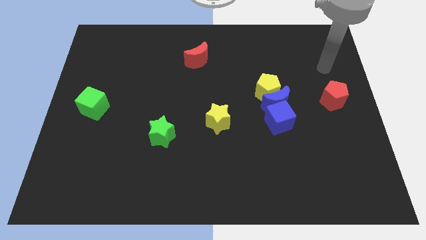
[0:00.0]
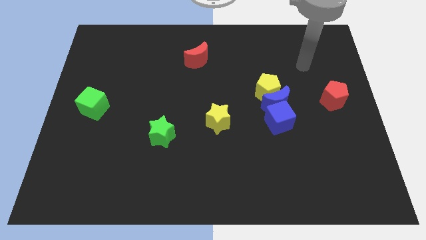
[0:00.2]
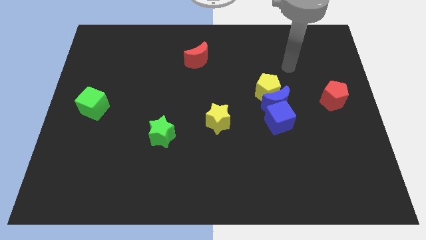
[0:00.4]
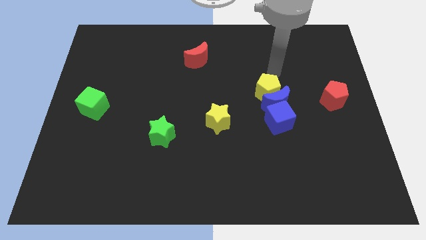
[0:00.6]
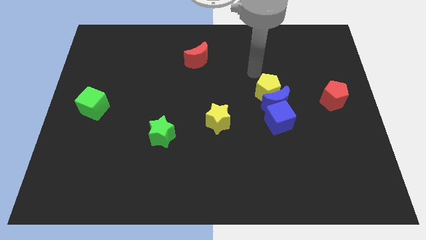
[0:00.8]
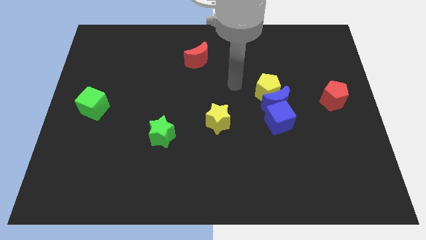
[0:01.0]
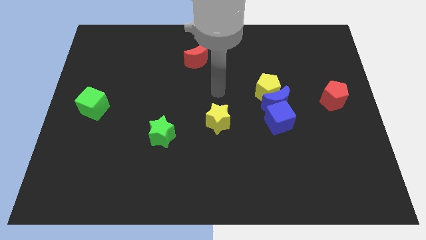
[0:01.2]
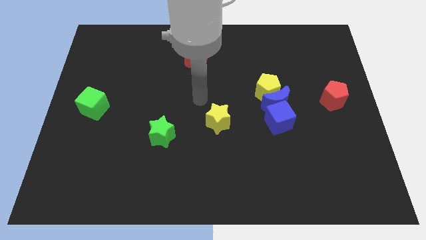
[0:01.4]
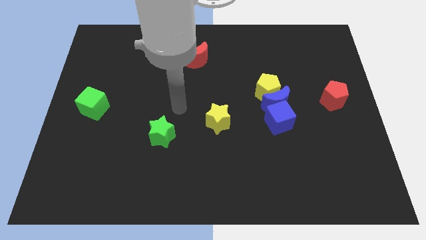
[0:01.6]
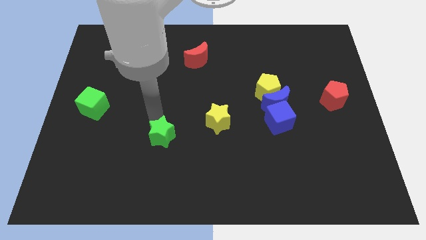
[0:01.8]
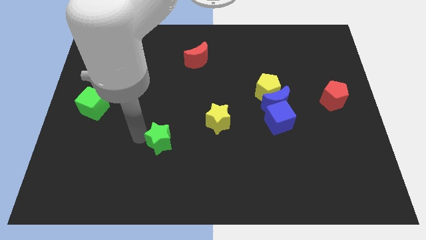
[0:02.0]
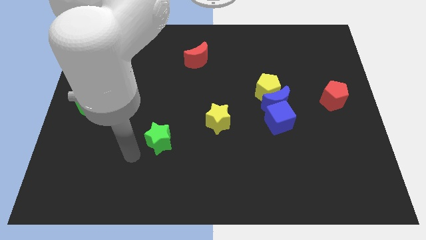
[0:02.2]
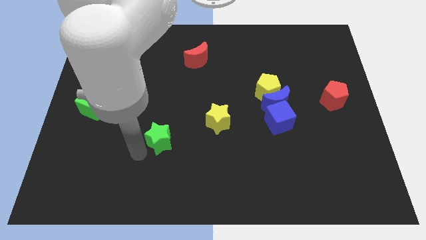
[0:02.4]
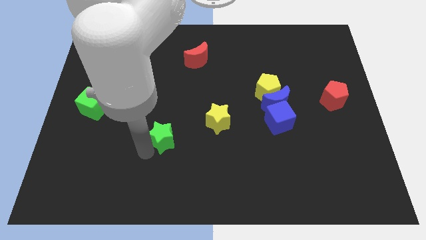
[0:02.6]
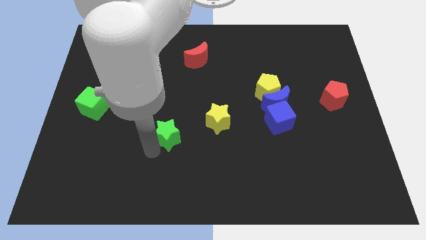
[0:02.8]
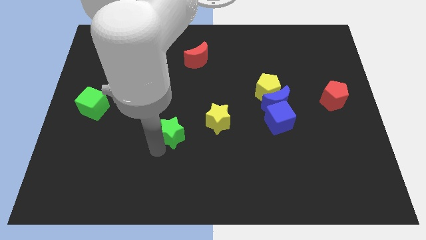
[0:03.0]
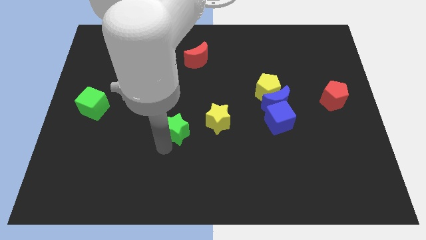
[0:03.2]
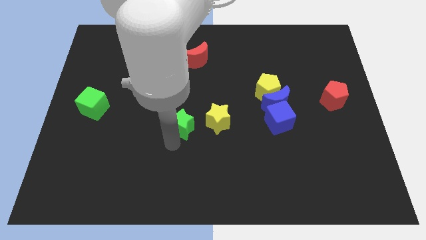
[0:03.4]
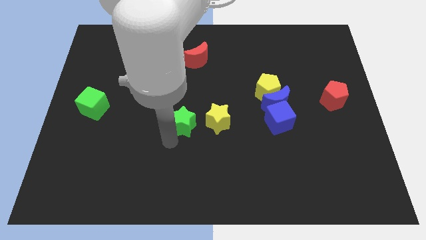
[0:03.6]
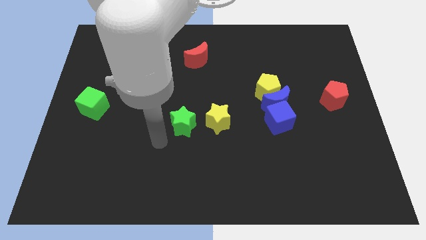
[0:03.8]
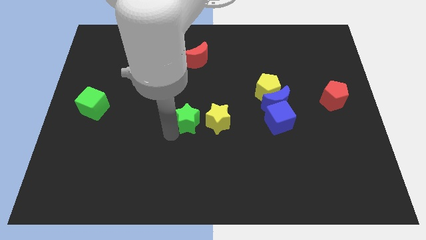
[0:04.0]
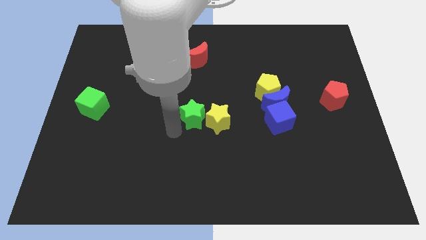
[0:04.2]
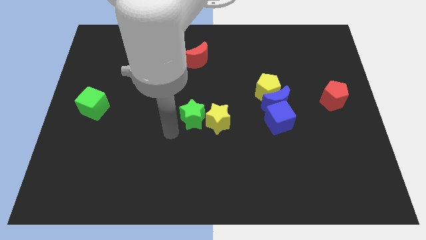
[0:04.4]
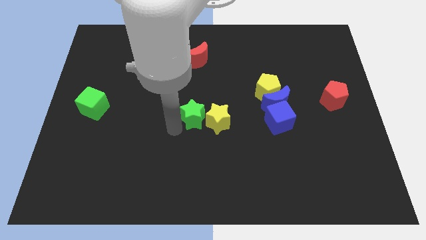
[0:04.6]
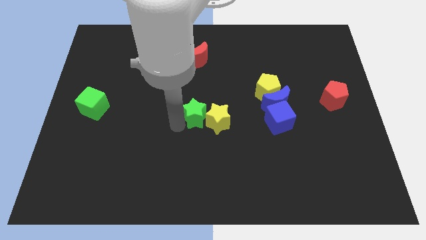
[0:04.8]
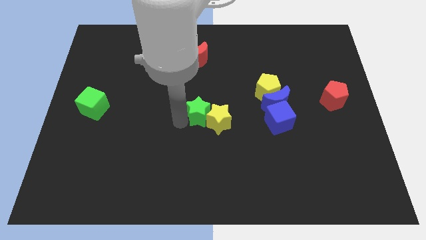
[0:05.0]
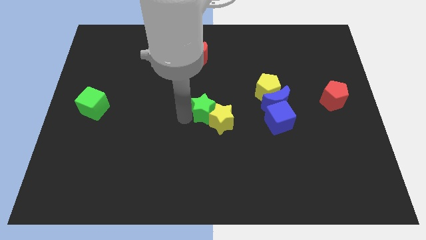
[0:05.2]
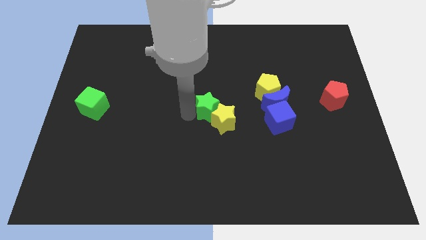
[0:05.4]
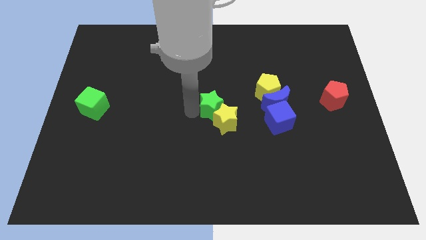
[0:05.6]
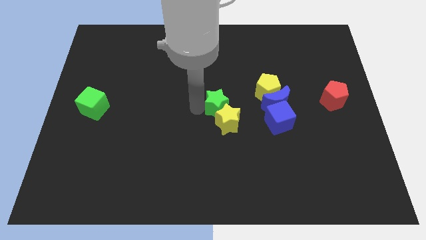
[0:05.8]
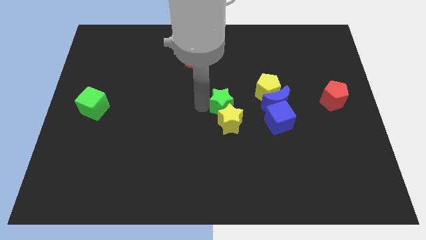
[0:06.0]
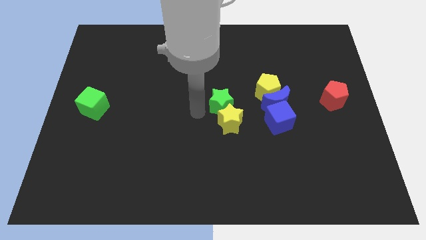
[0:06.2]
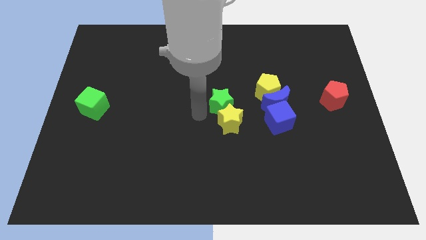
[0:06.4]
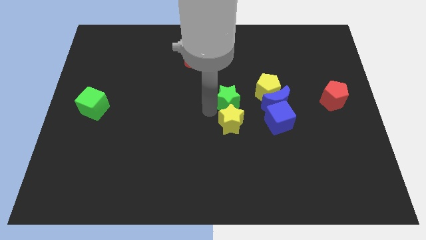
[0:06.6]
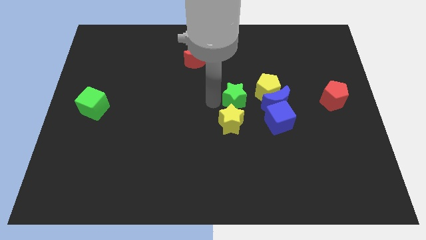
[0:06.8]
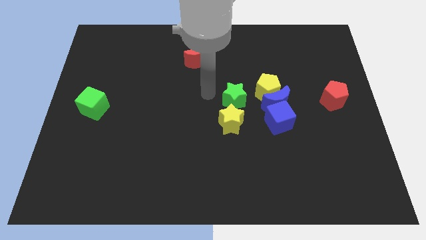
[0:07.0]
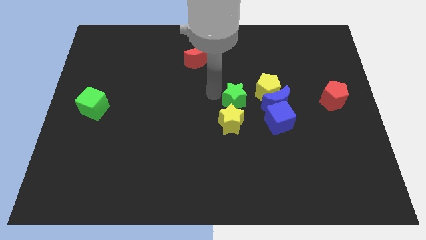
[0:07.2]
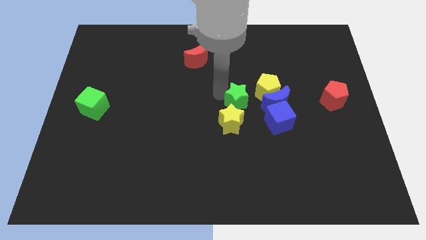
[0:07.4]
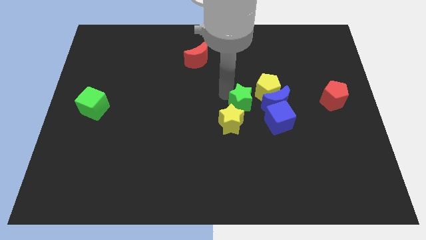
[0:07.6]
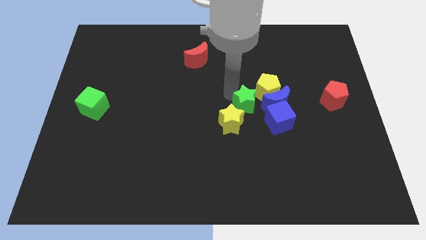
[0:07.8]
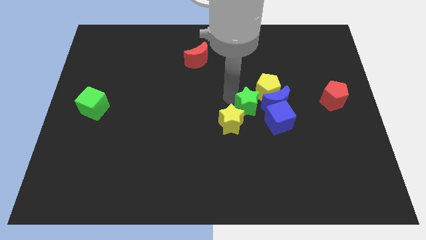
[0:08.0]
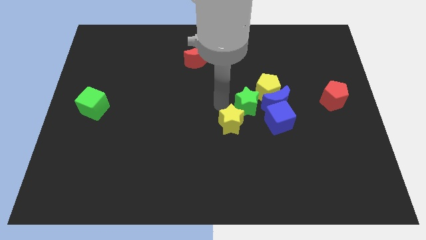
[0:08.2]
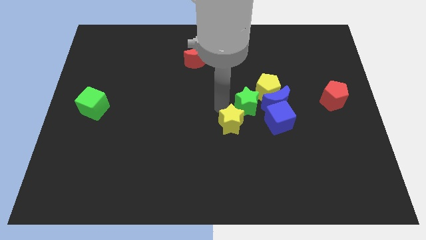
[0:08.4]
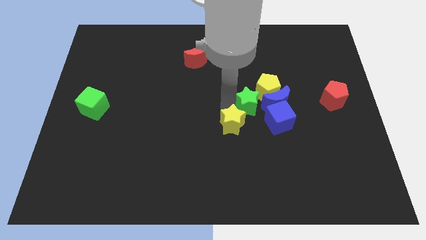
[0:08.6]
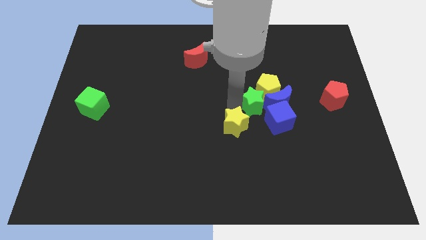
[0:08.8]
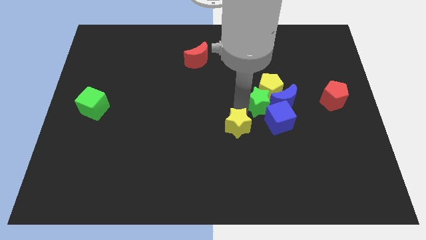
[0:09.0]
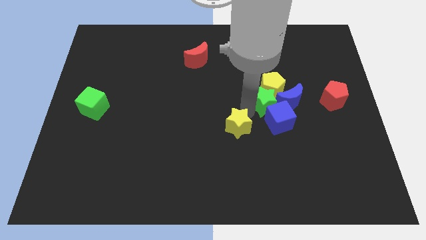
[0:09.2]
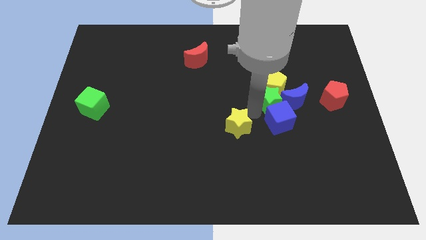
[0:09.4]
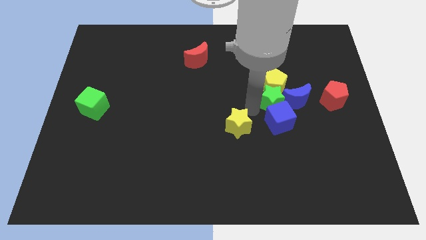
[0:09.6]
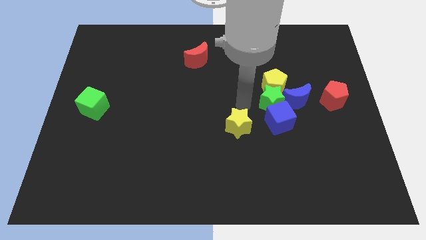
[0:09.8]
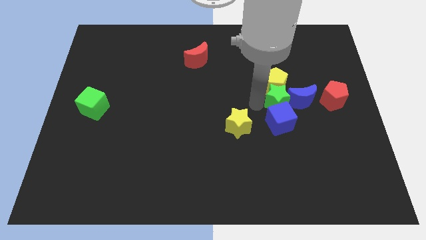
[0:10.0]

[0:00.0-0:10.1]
put the green star towards the blue moon

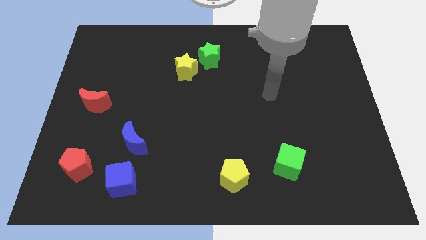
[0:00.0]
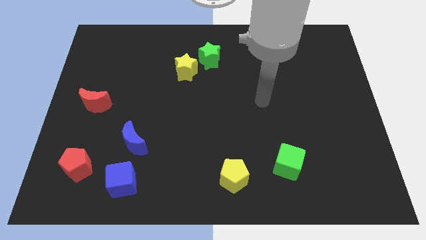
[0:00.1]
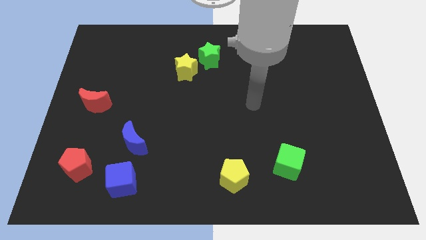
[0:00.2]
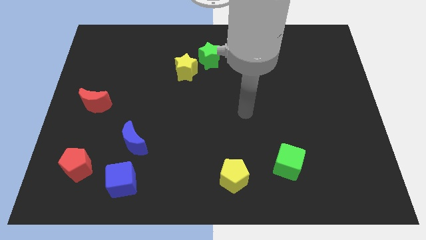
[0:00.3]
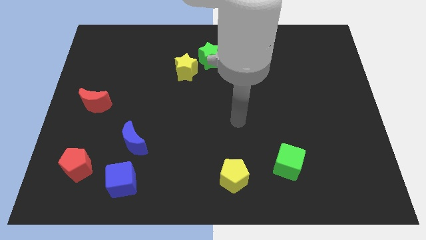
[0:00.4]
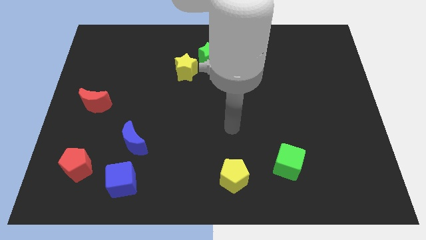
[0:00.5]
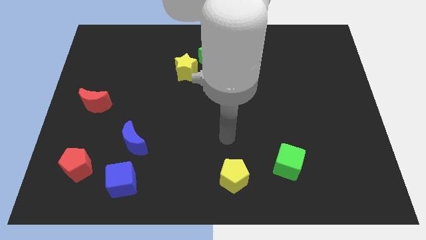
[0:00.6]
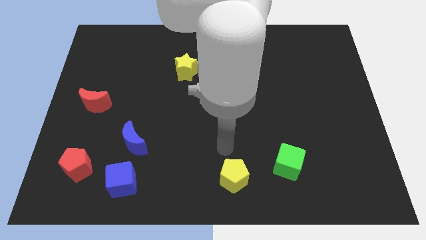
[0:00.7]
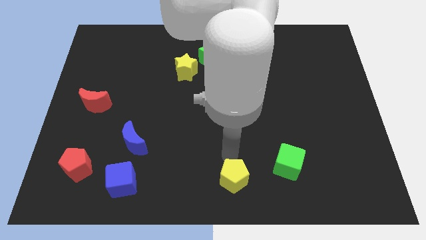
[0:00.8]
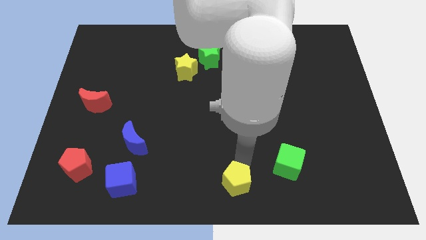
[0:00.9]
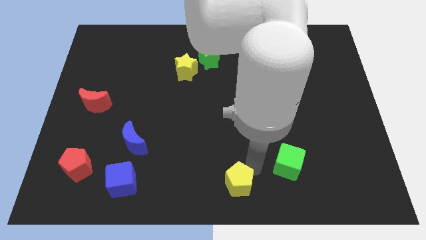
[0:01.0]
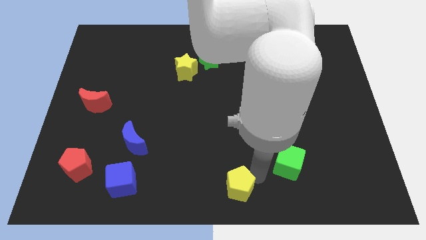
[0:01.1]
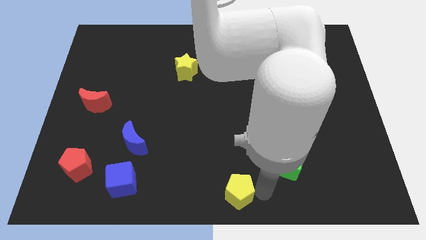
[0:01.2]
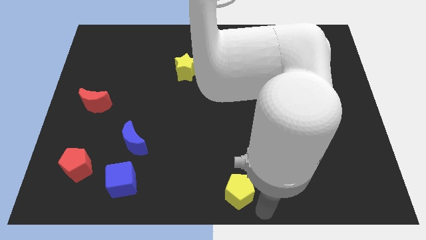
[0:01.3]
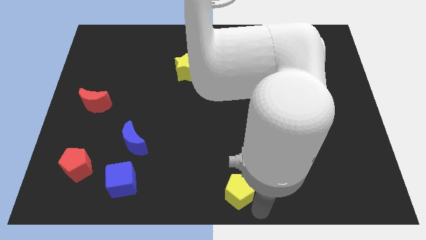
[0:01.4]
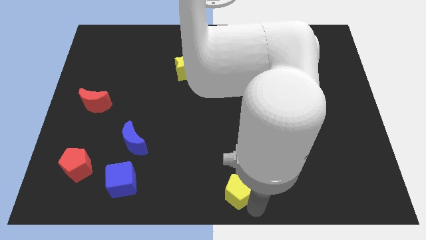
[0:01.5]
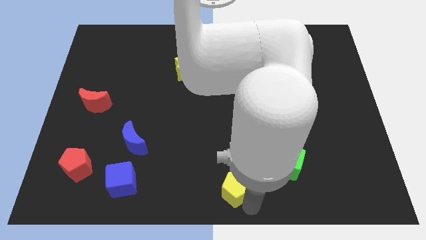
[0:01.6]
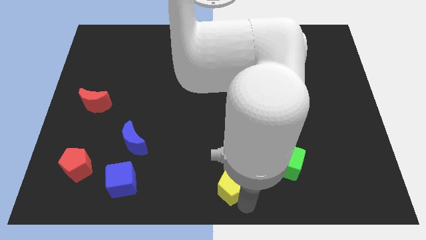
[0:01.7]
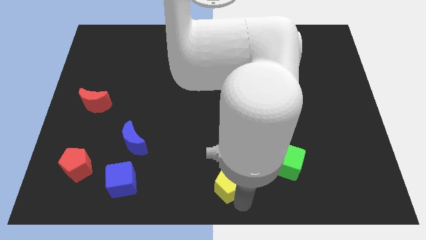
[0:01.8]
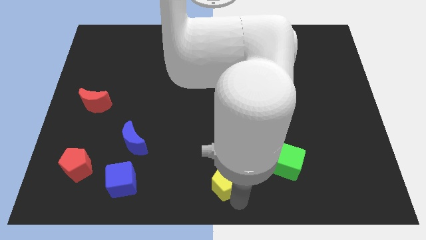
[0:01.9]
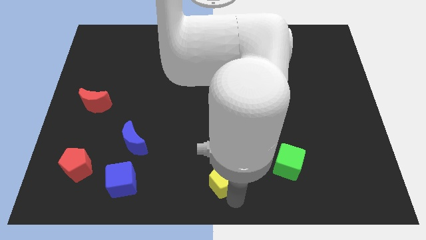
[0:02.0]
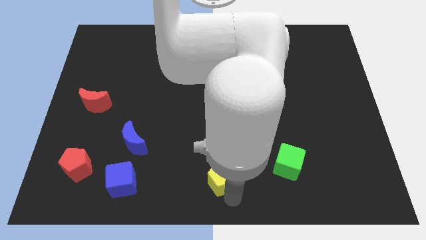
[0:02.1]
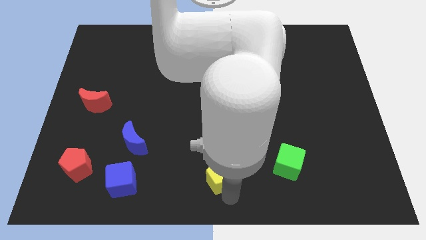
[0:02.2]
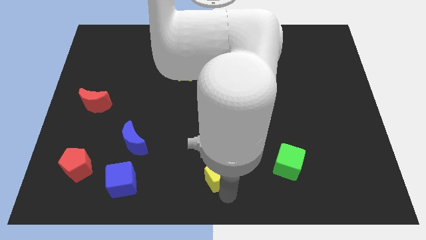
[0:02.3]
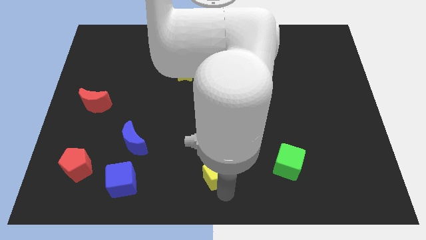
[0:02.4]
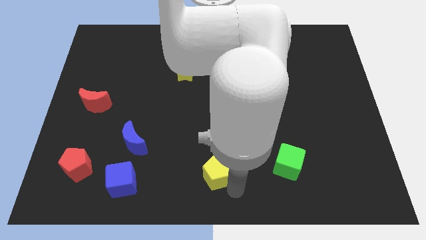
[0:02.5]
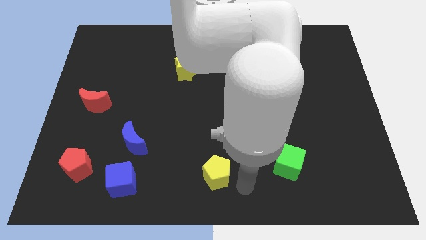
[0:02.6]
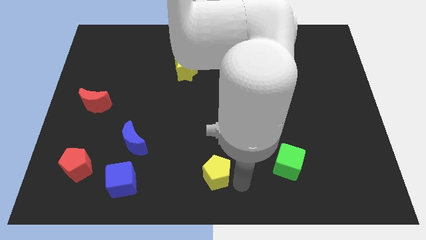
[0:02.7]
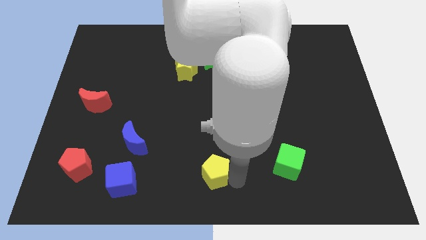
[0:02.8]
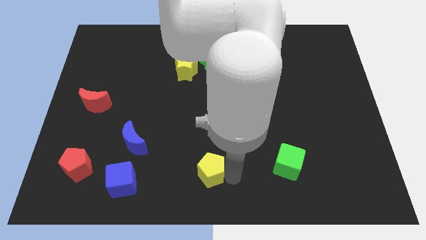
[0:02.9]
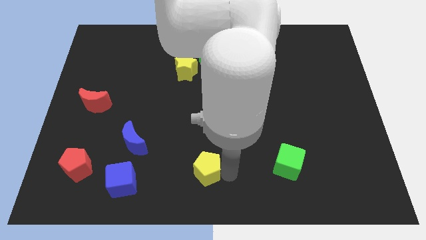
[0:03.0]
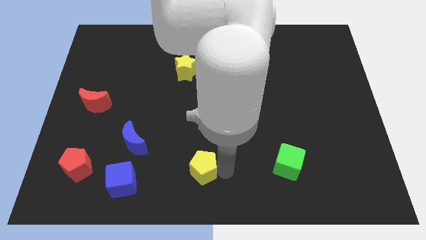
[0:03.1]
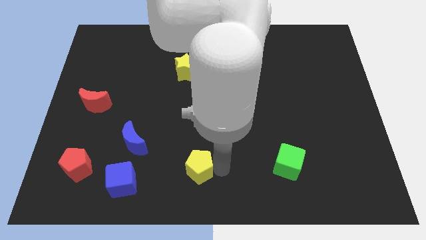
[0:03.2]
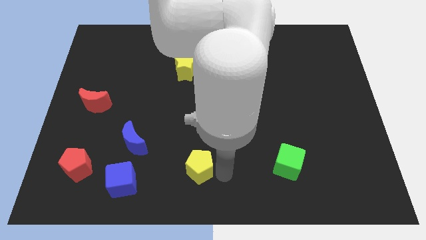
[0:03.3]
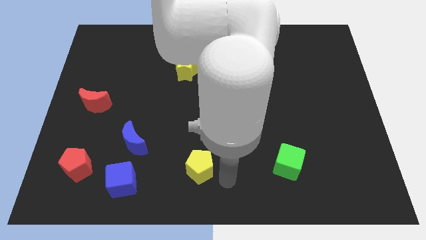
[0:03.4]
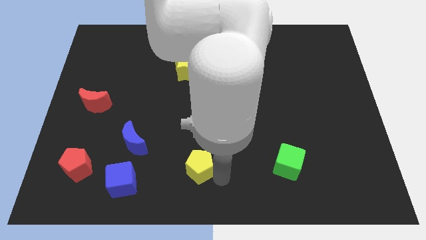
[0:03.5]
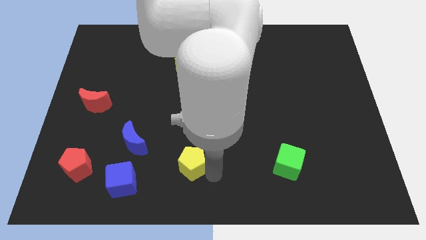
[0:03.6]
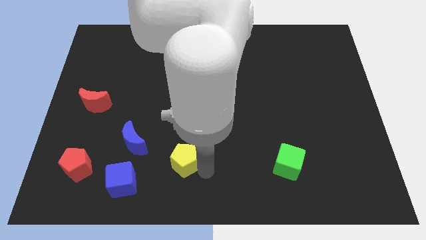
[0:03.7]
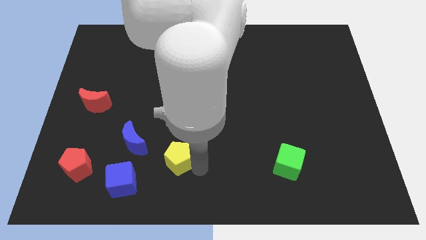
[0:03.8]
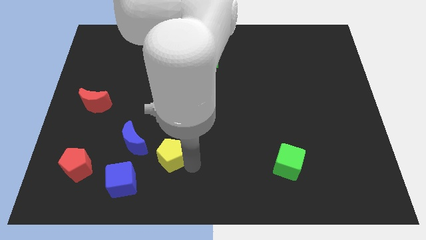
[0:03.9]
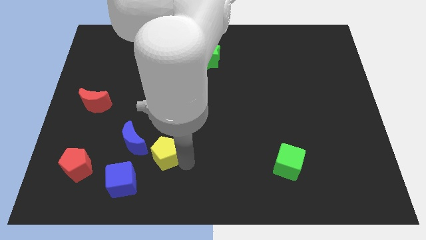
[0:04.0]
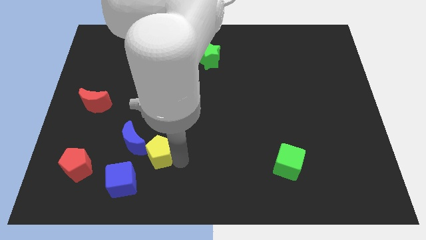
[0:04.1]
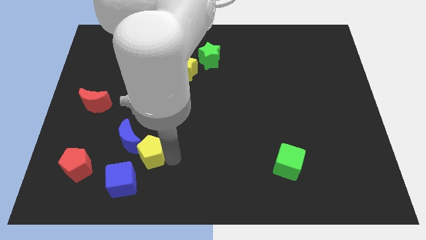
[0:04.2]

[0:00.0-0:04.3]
move the yellow pentagon close to the blue moon
